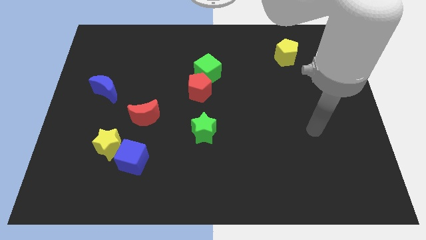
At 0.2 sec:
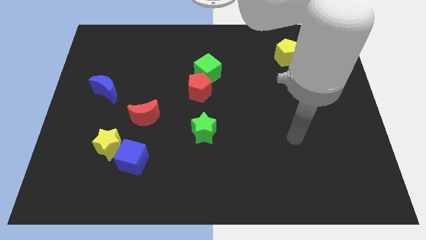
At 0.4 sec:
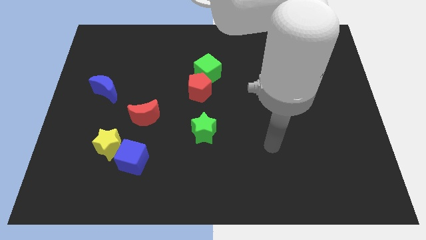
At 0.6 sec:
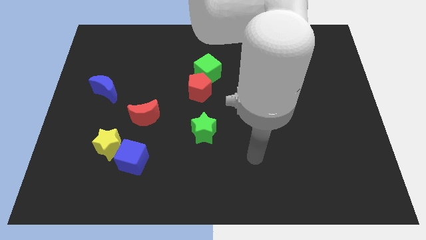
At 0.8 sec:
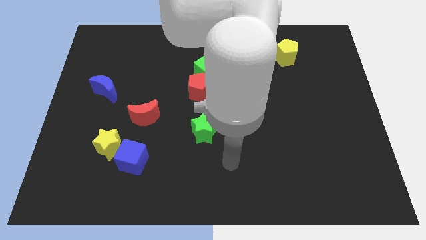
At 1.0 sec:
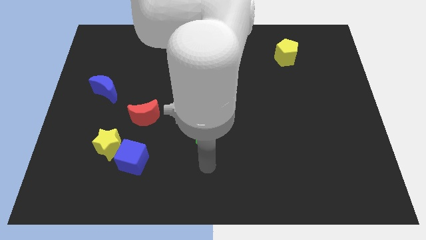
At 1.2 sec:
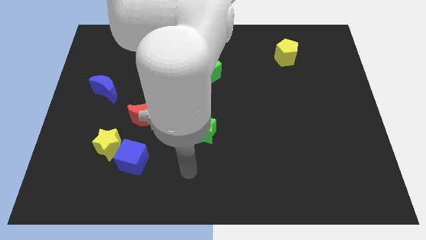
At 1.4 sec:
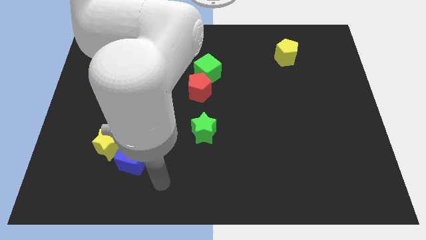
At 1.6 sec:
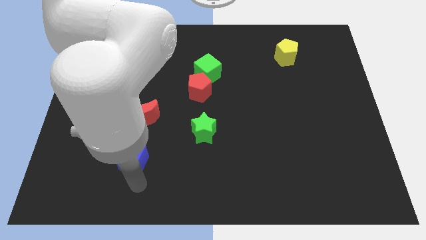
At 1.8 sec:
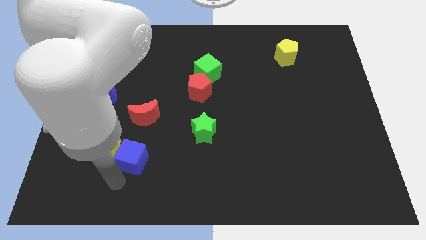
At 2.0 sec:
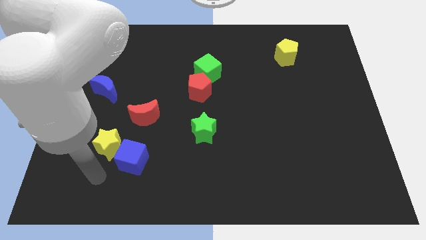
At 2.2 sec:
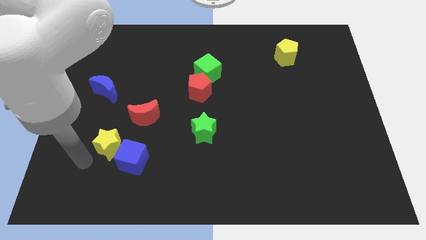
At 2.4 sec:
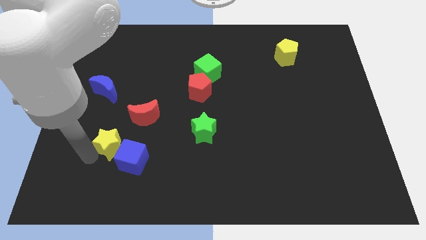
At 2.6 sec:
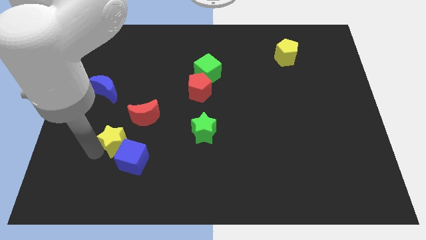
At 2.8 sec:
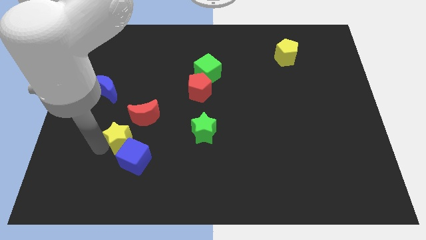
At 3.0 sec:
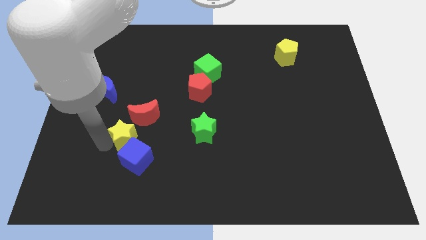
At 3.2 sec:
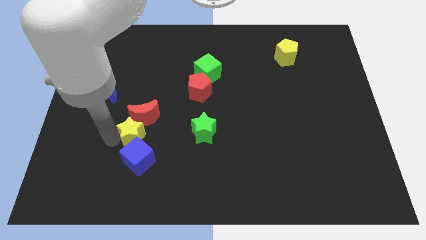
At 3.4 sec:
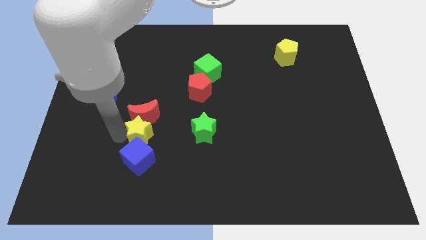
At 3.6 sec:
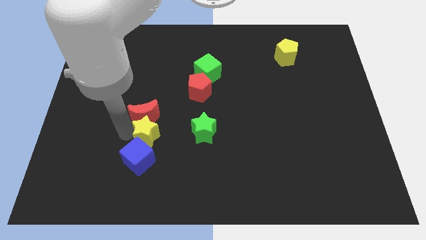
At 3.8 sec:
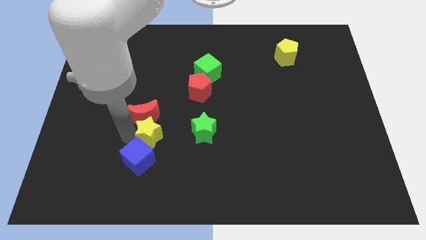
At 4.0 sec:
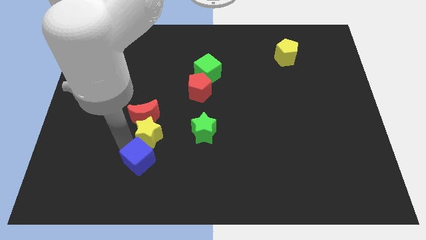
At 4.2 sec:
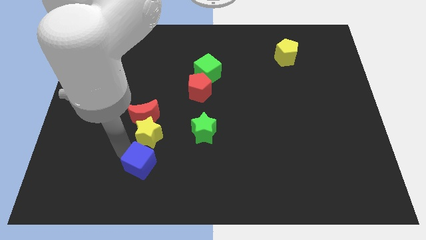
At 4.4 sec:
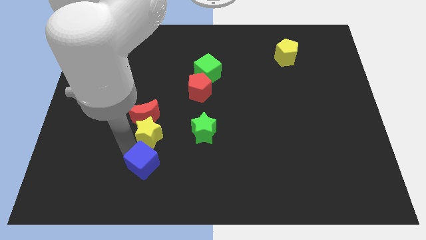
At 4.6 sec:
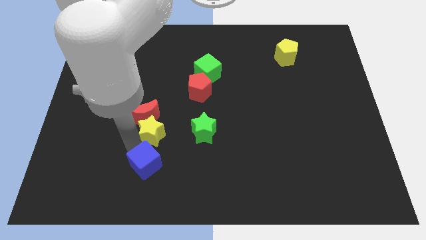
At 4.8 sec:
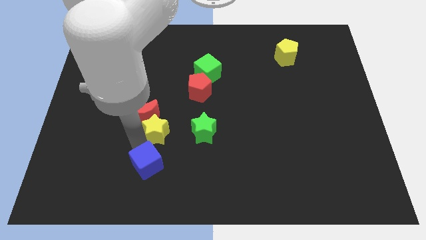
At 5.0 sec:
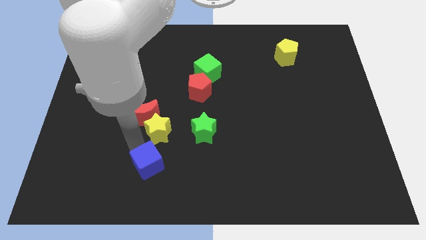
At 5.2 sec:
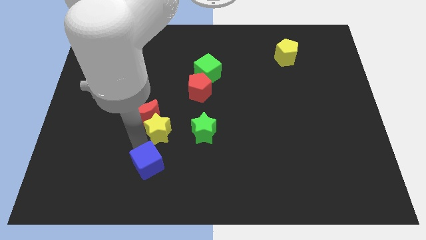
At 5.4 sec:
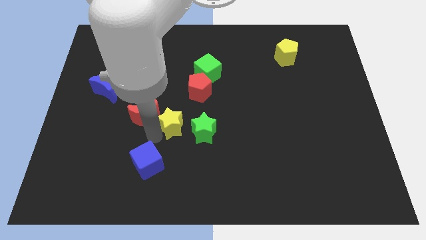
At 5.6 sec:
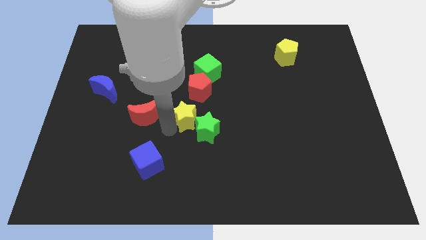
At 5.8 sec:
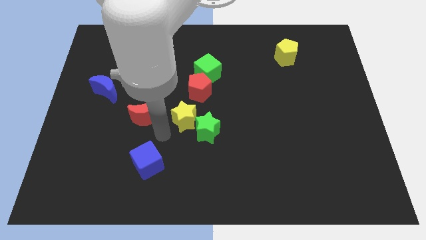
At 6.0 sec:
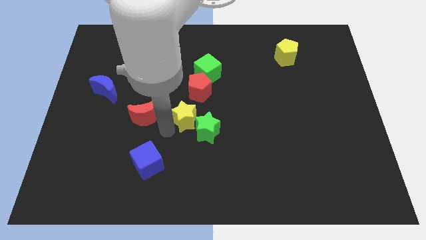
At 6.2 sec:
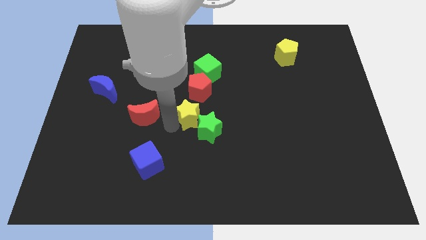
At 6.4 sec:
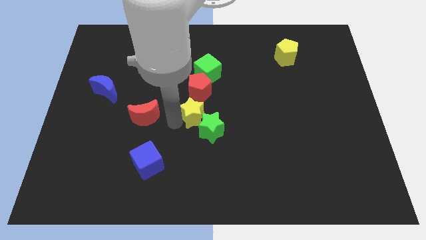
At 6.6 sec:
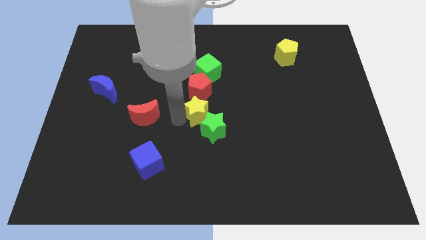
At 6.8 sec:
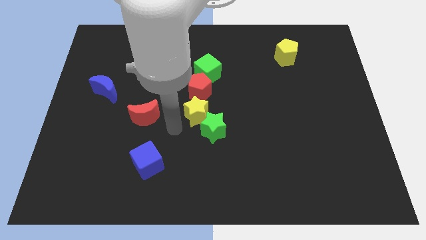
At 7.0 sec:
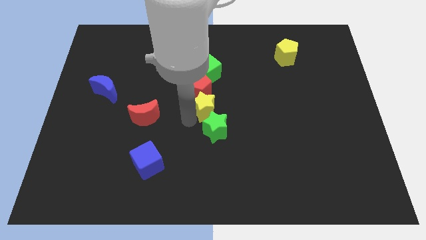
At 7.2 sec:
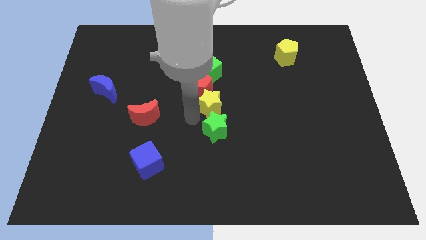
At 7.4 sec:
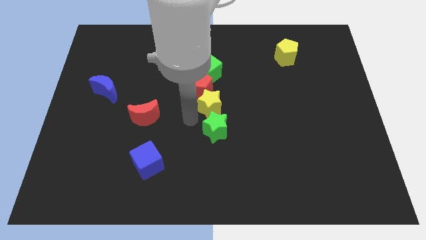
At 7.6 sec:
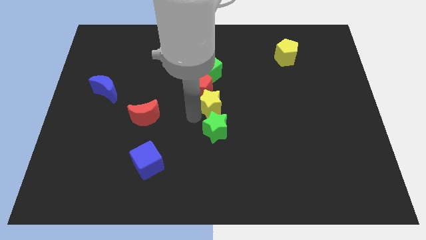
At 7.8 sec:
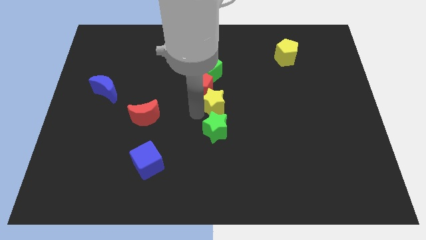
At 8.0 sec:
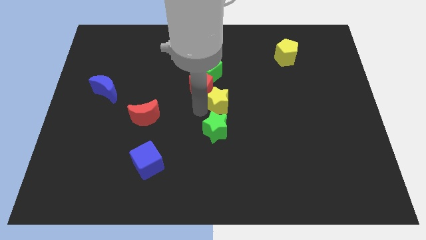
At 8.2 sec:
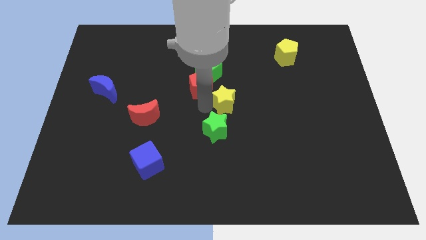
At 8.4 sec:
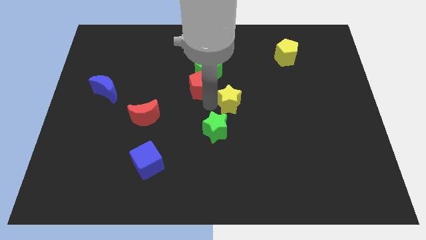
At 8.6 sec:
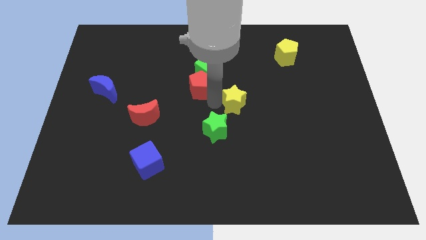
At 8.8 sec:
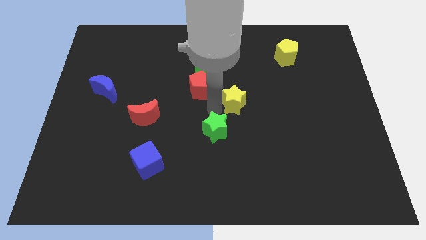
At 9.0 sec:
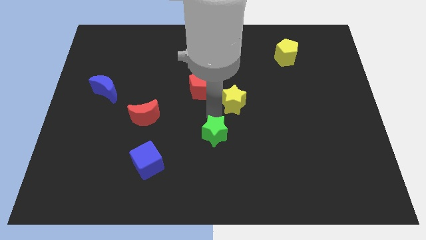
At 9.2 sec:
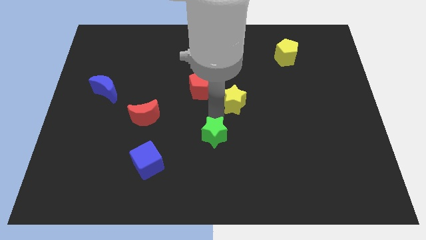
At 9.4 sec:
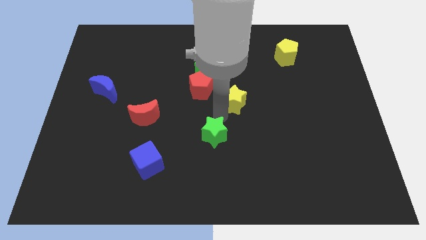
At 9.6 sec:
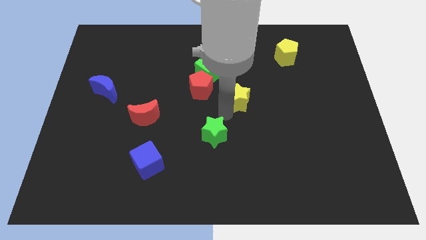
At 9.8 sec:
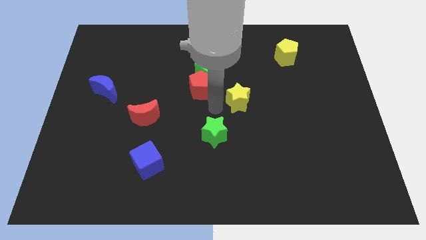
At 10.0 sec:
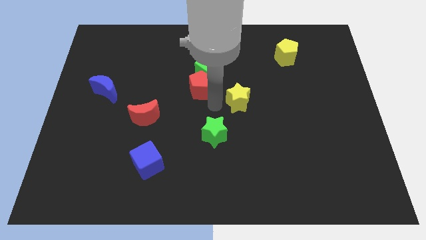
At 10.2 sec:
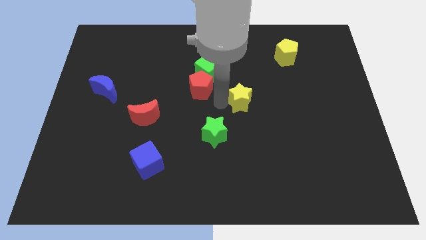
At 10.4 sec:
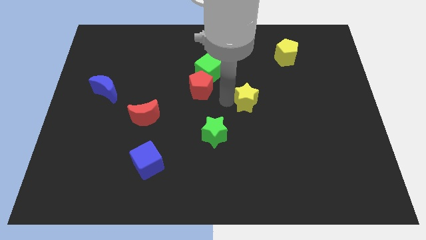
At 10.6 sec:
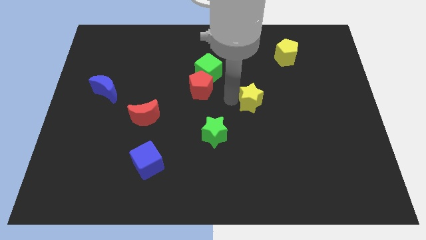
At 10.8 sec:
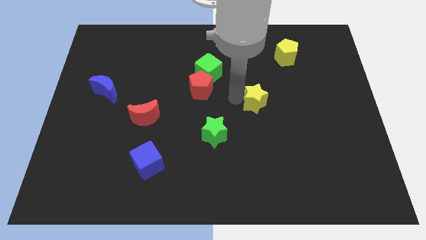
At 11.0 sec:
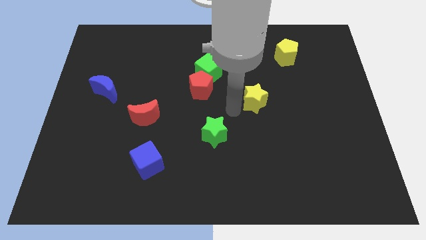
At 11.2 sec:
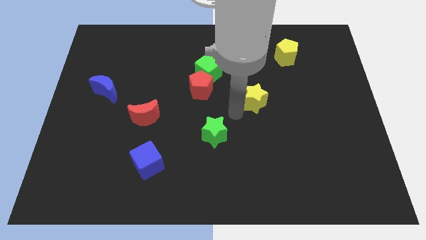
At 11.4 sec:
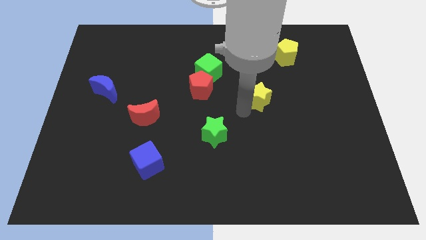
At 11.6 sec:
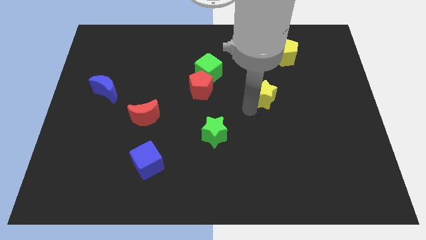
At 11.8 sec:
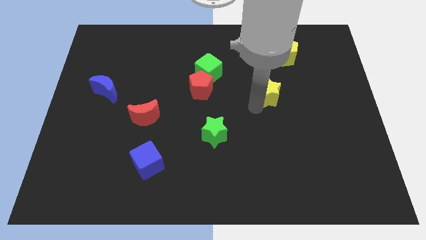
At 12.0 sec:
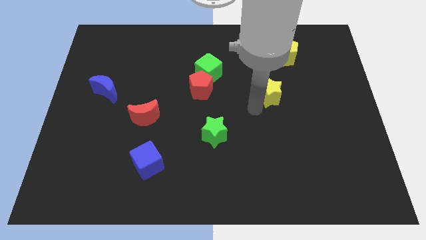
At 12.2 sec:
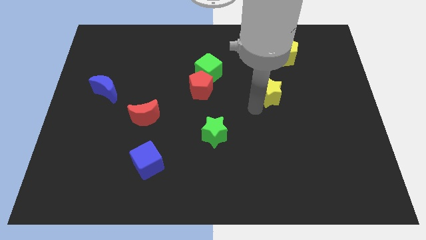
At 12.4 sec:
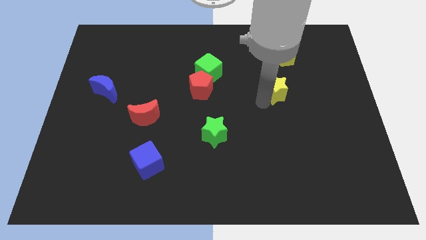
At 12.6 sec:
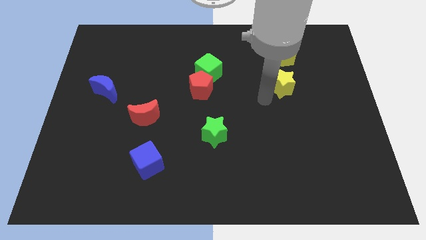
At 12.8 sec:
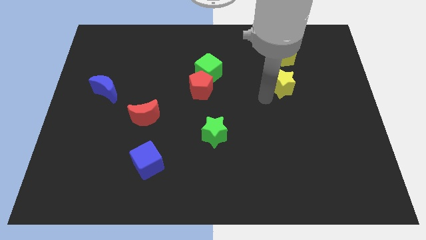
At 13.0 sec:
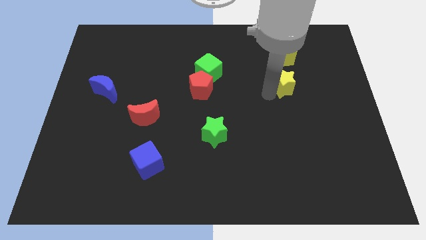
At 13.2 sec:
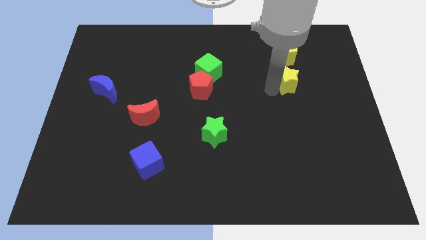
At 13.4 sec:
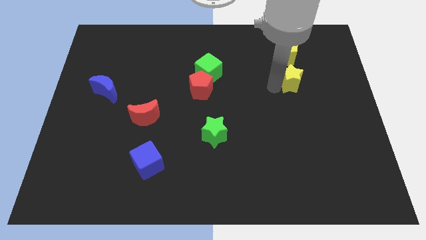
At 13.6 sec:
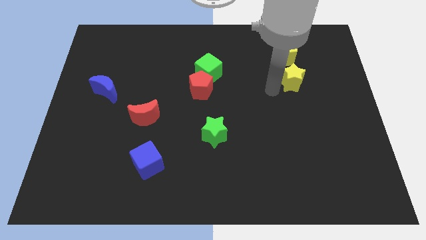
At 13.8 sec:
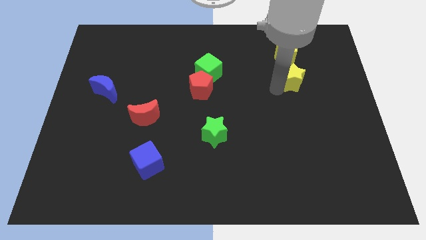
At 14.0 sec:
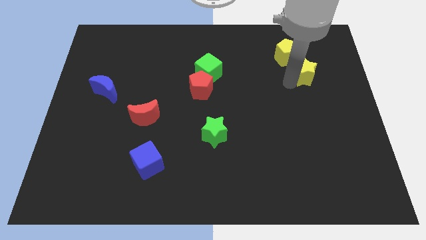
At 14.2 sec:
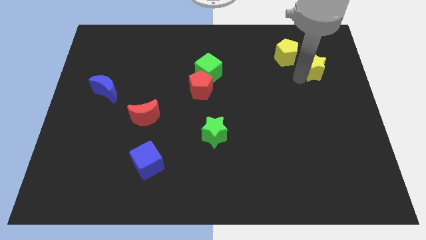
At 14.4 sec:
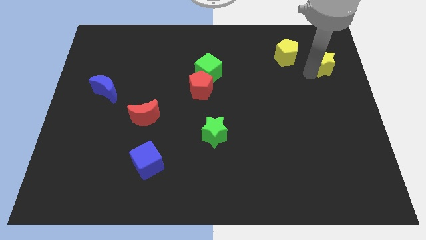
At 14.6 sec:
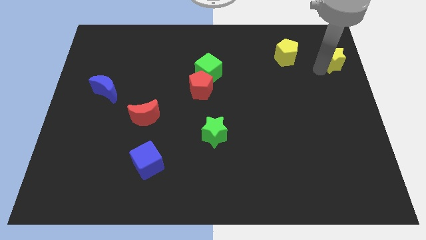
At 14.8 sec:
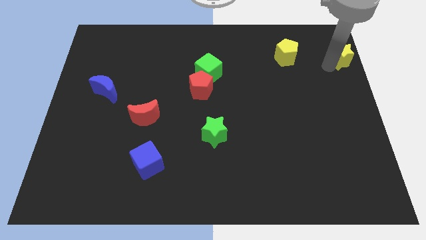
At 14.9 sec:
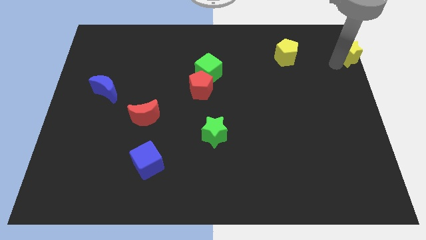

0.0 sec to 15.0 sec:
move the yellow star to the upper right corner
